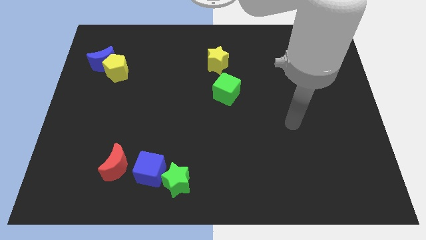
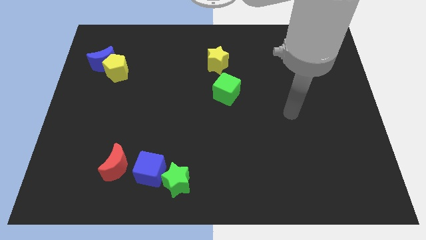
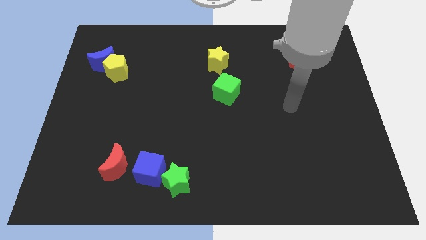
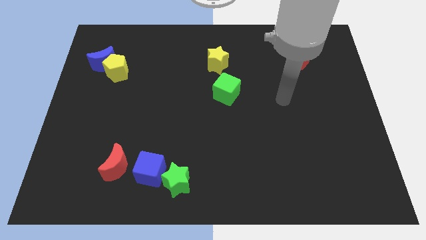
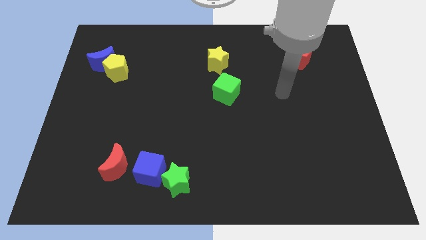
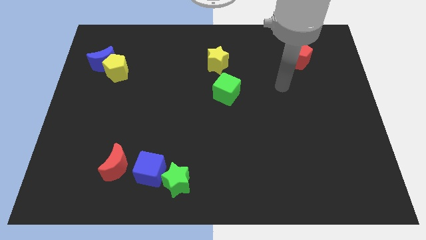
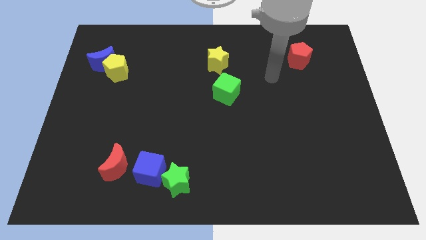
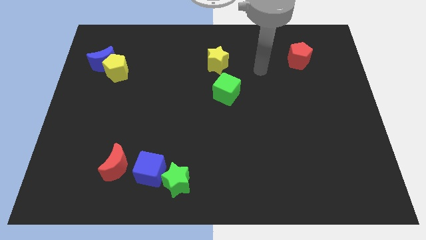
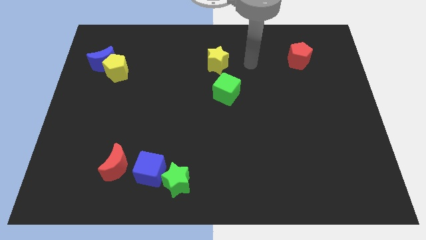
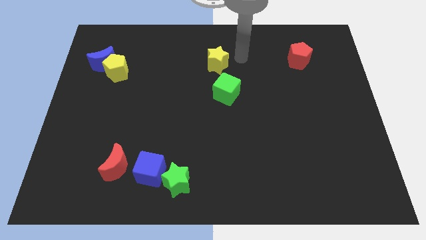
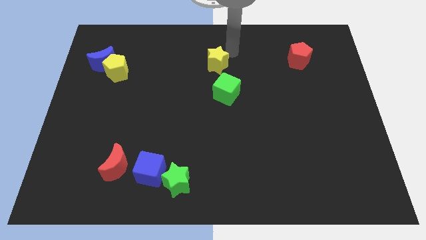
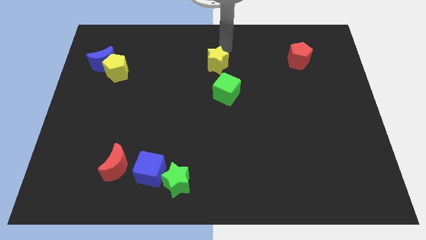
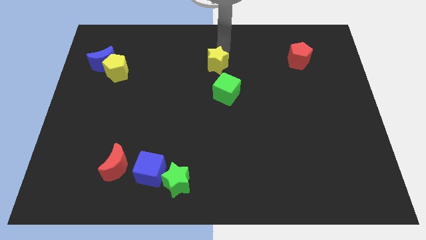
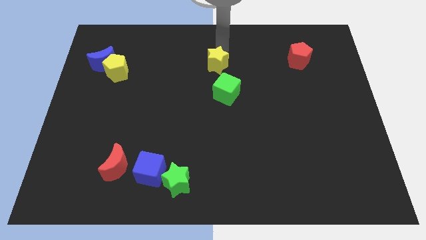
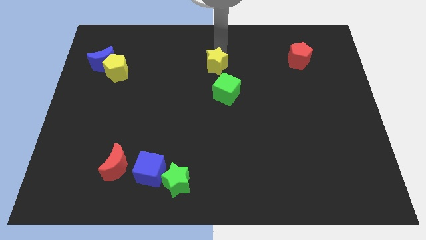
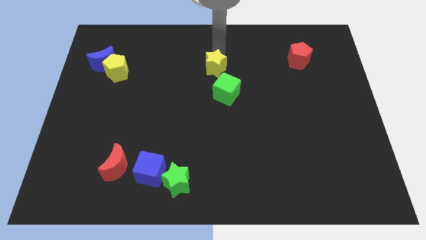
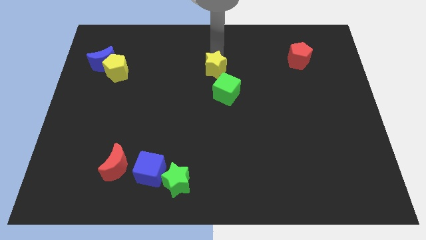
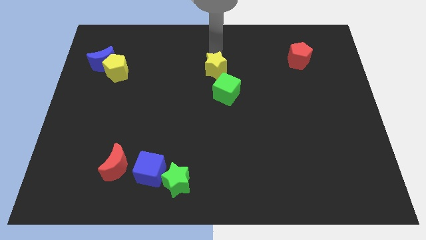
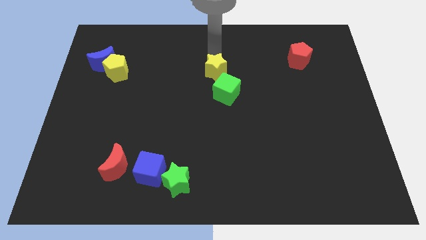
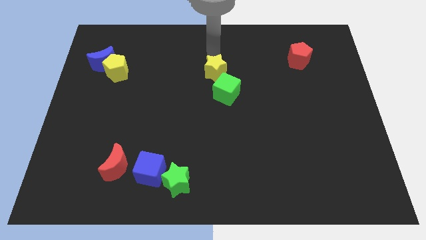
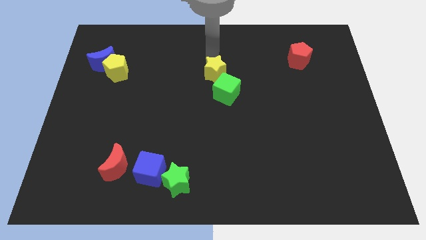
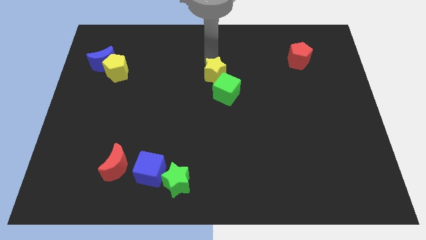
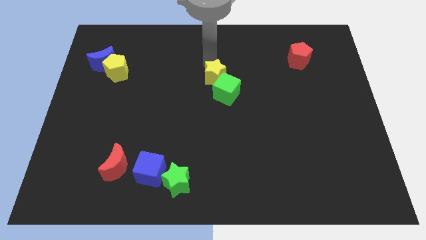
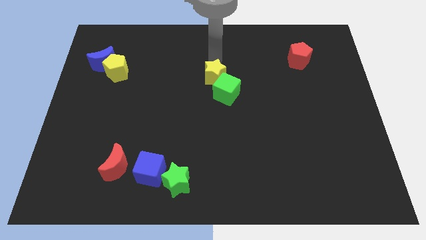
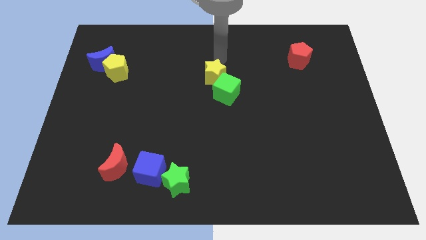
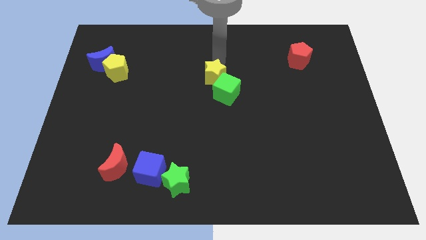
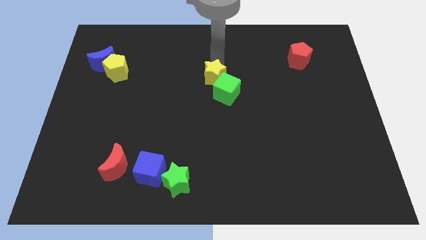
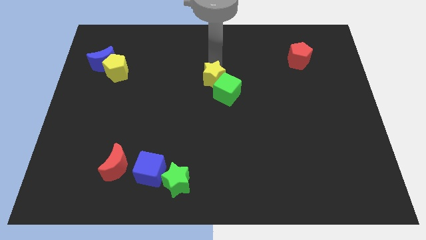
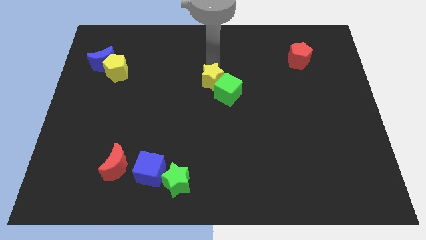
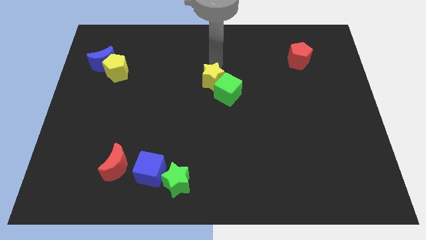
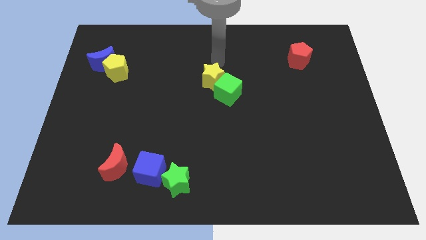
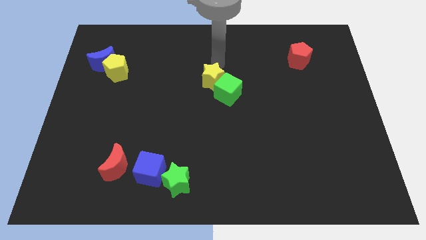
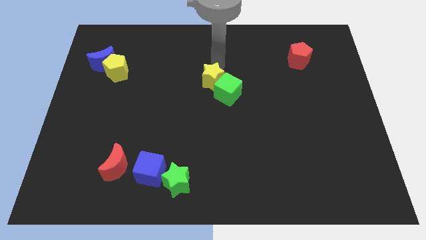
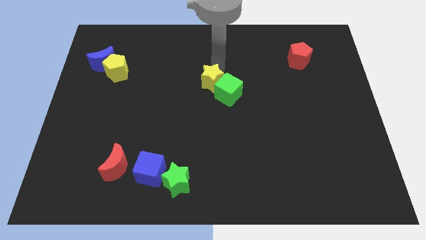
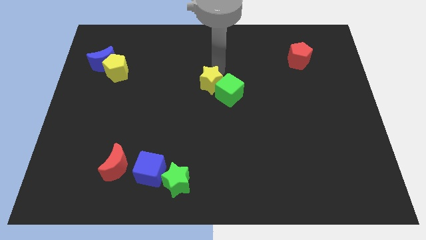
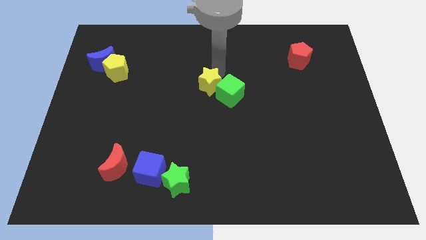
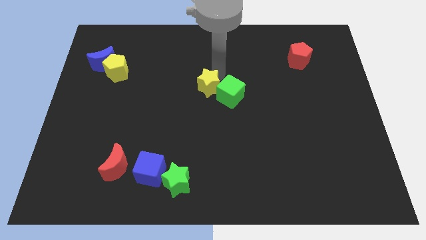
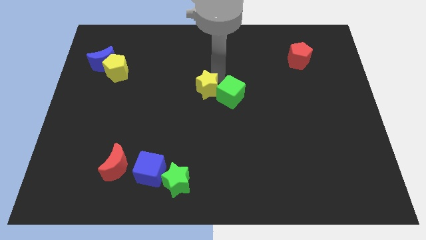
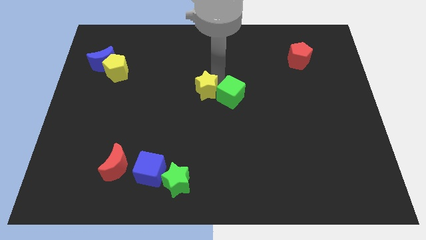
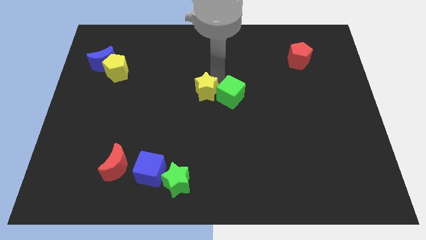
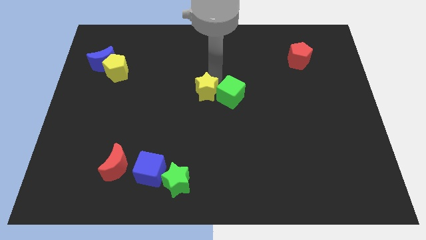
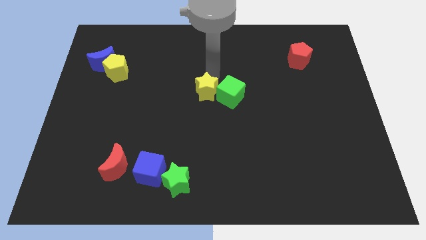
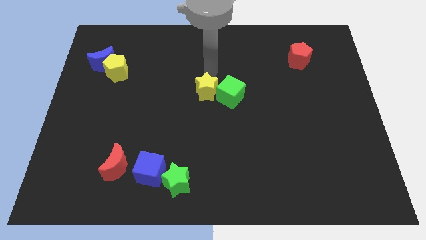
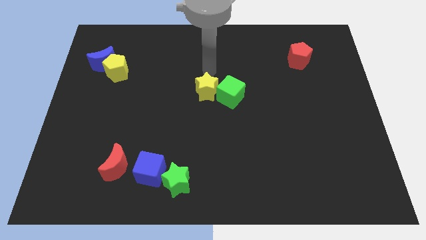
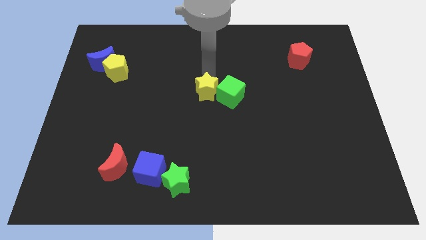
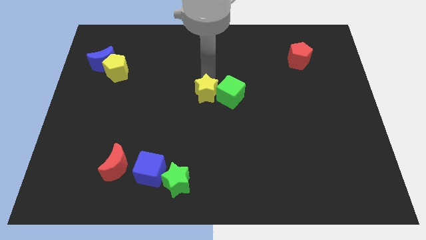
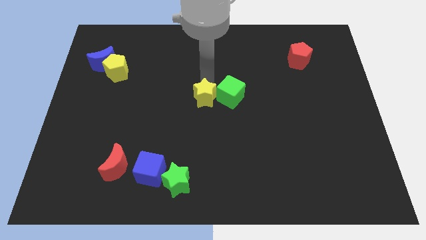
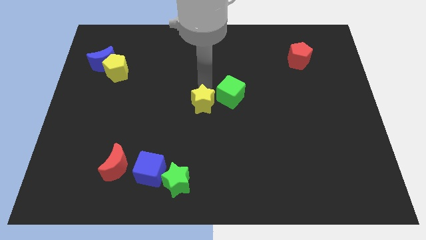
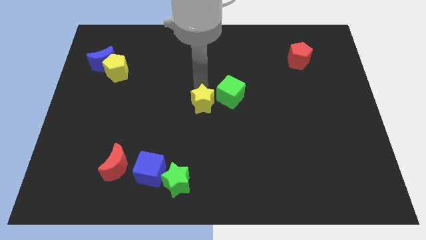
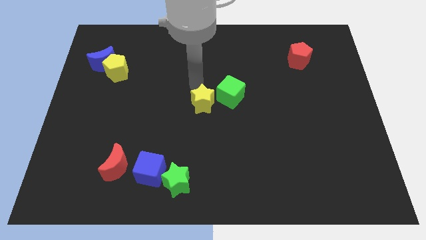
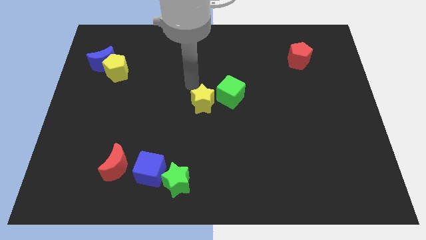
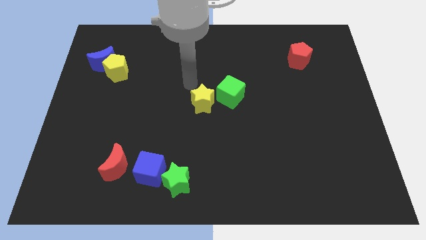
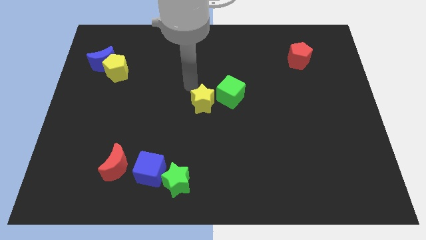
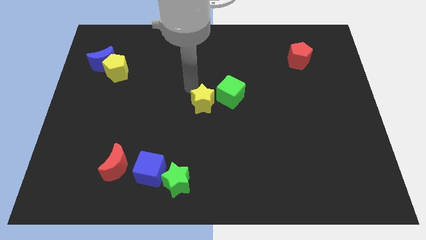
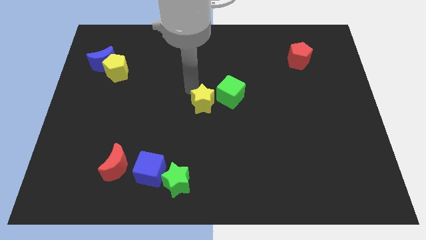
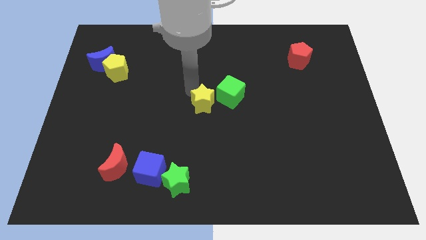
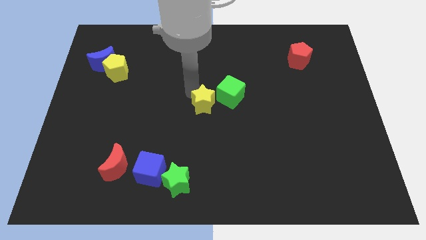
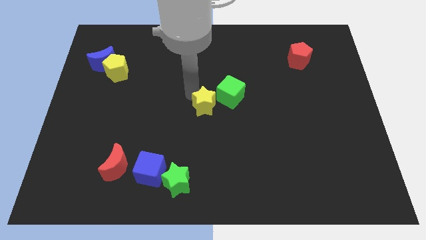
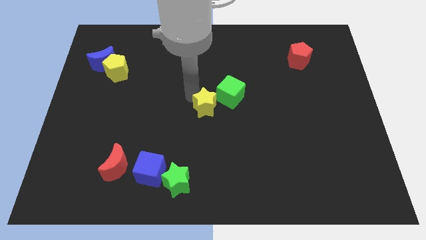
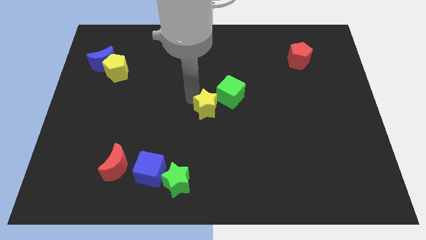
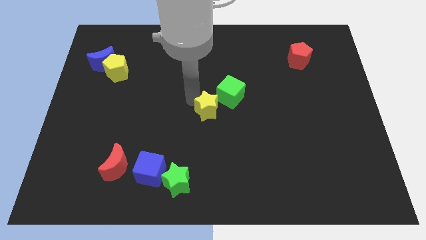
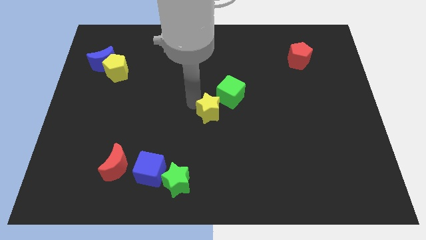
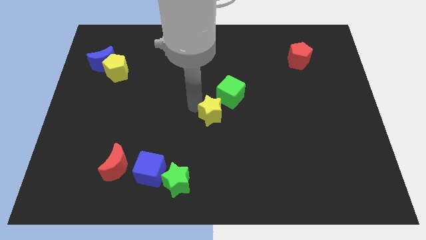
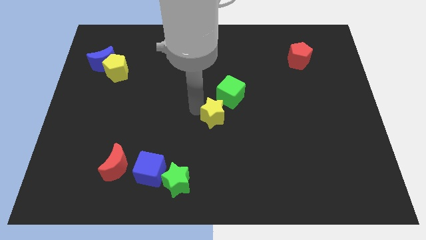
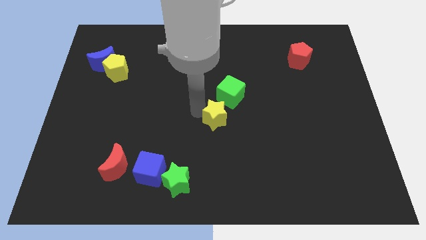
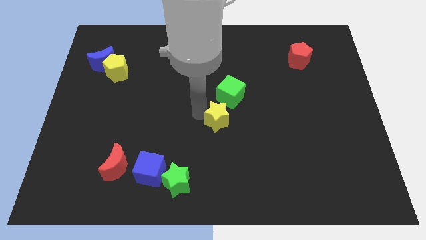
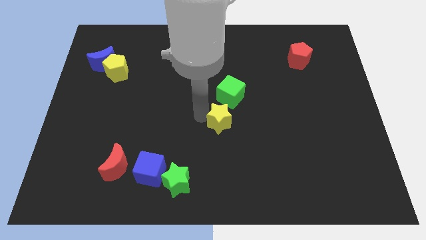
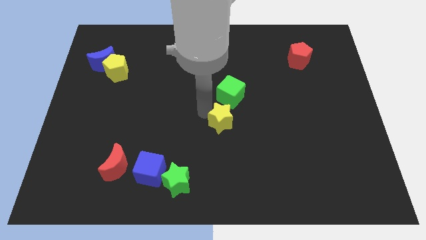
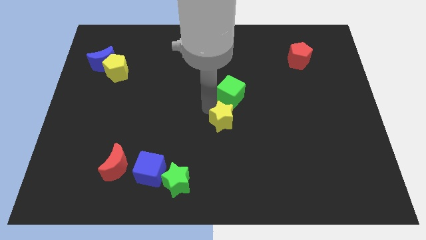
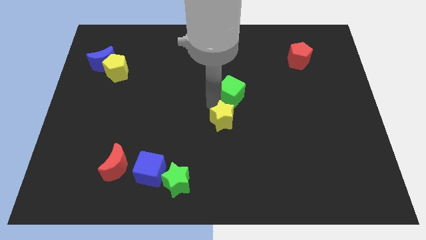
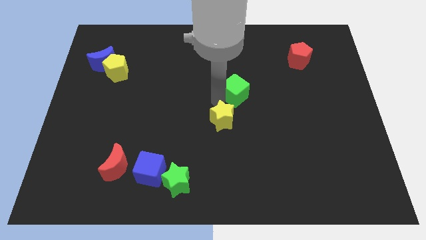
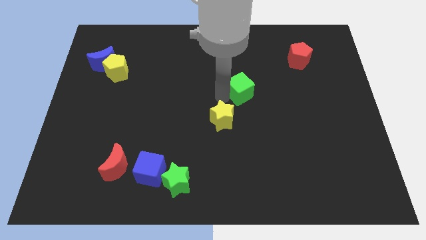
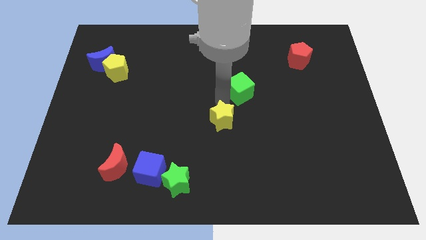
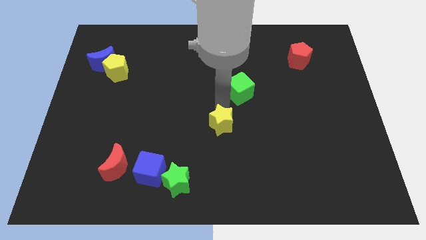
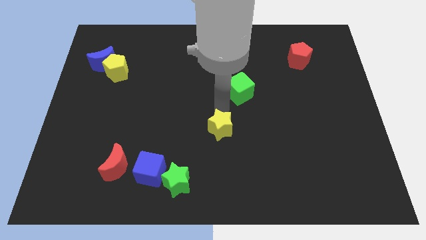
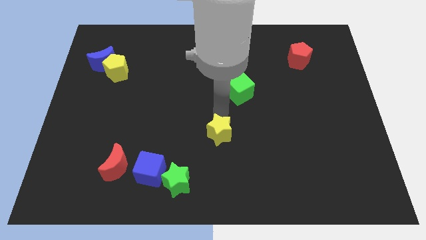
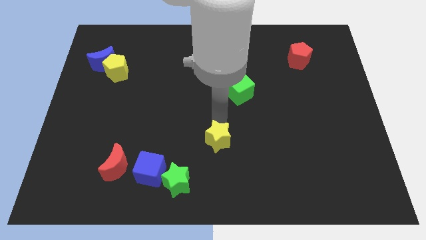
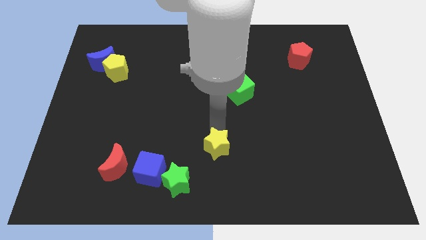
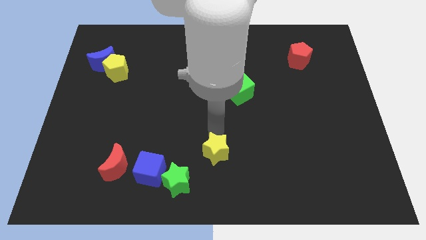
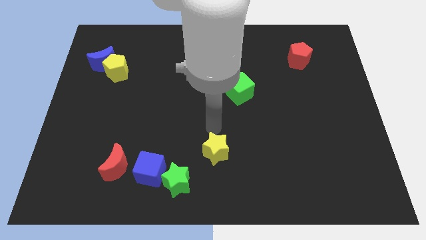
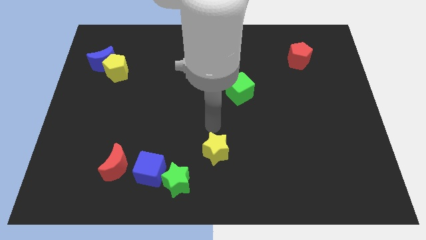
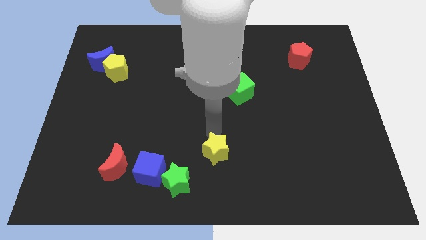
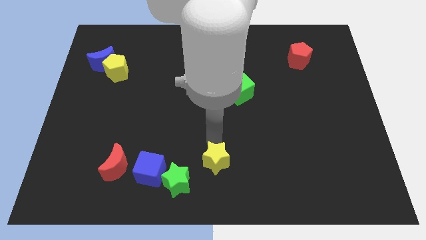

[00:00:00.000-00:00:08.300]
push the yellow star to the bottom
